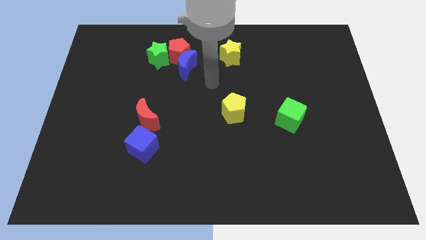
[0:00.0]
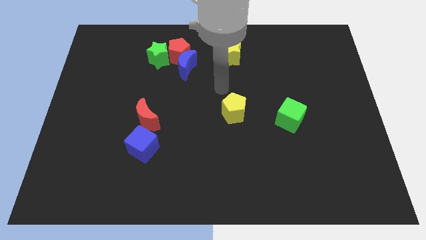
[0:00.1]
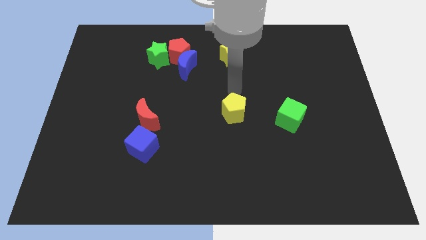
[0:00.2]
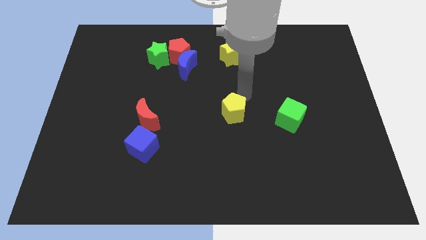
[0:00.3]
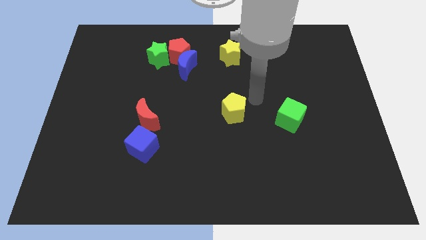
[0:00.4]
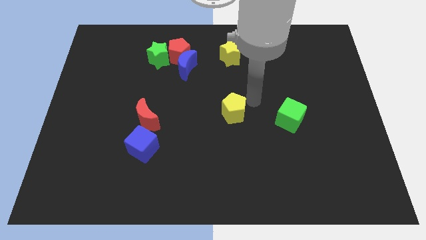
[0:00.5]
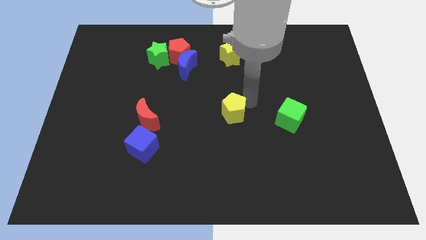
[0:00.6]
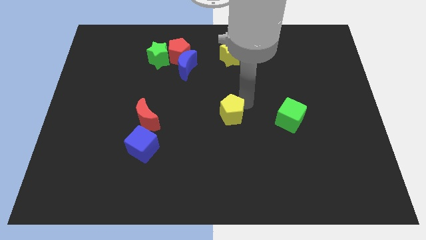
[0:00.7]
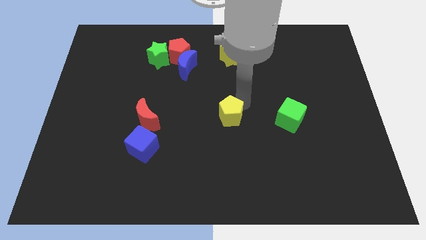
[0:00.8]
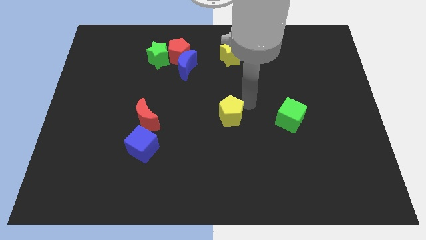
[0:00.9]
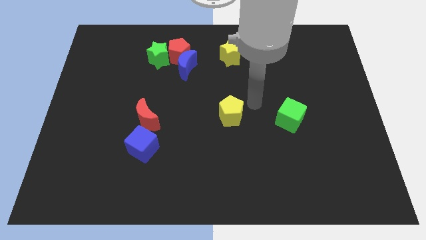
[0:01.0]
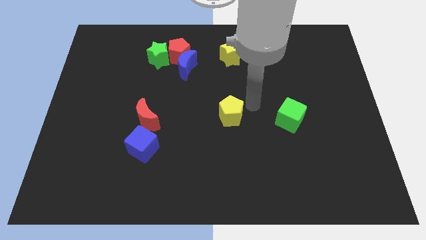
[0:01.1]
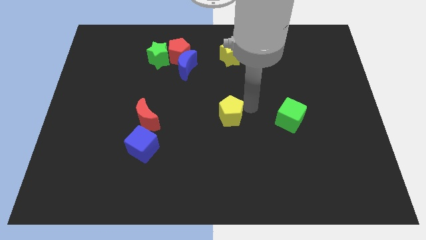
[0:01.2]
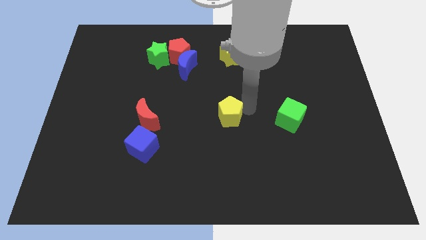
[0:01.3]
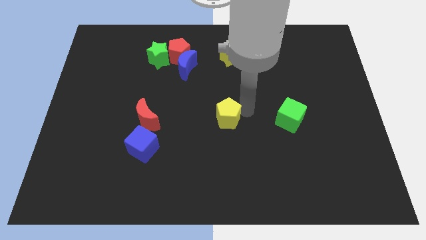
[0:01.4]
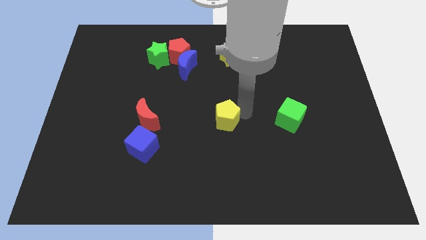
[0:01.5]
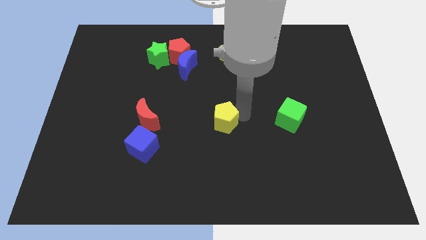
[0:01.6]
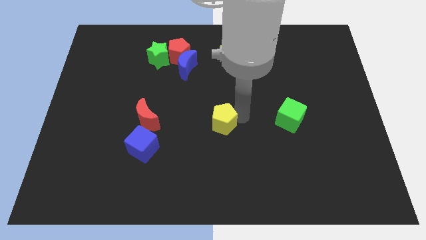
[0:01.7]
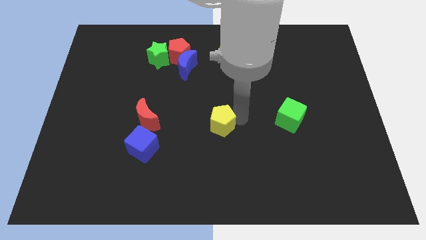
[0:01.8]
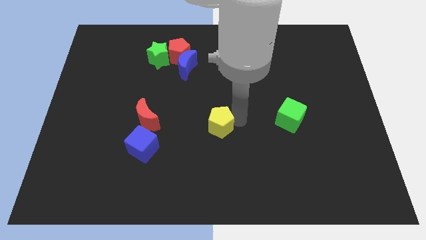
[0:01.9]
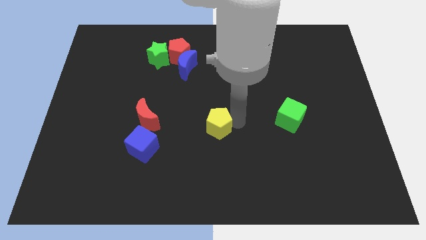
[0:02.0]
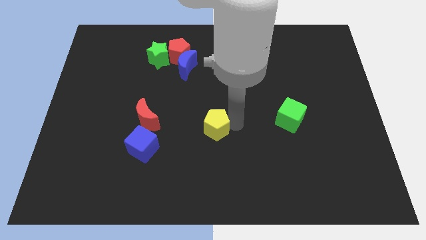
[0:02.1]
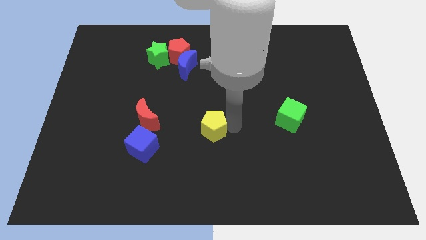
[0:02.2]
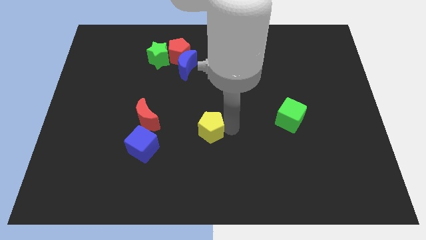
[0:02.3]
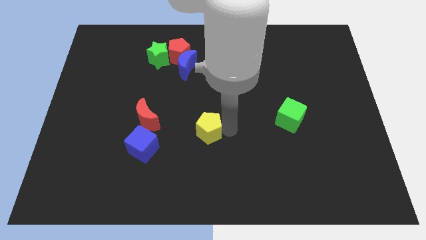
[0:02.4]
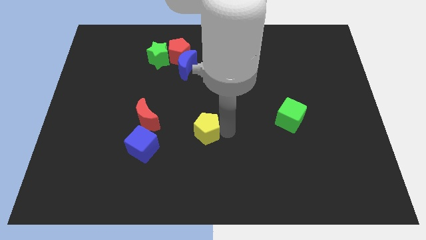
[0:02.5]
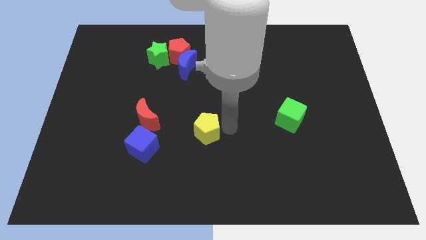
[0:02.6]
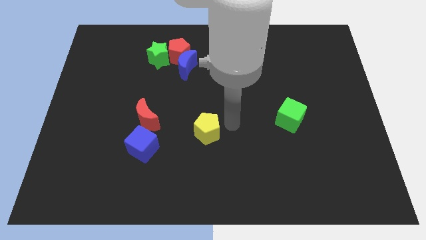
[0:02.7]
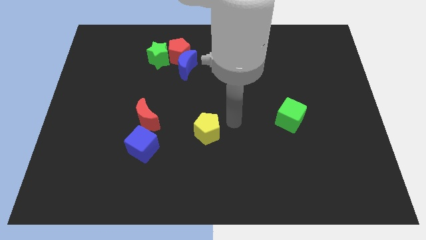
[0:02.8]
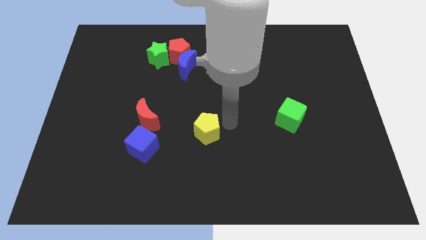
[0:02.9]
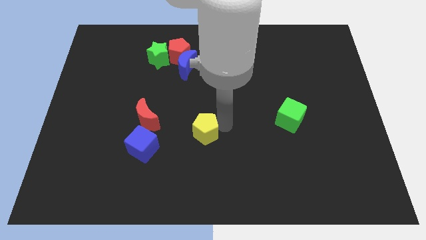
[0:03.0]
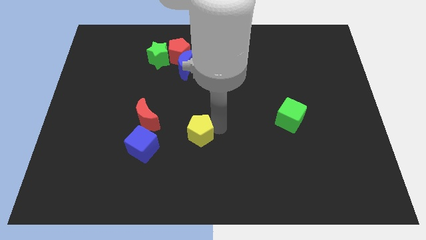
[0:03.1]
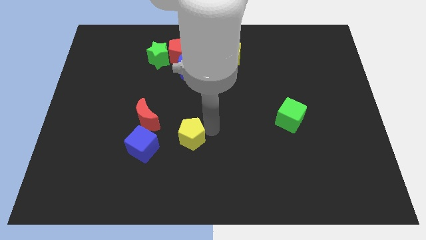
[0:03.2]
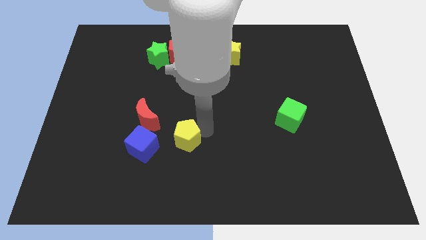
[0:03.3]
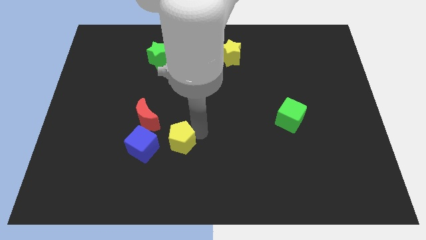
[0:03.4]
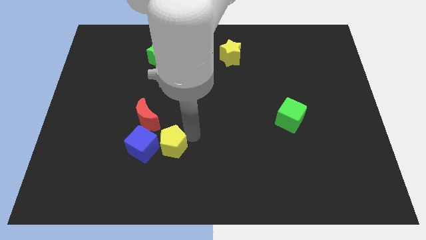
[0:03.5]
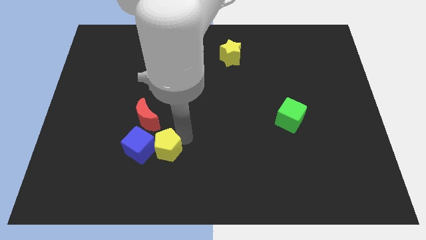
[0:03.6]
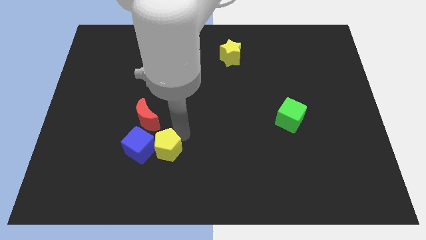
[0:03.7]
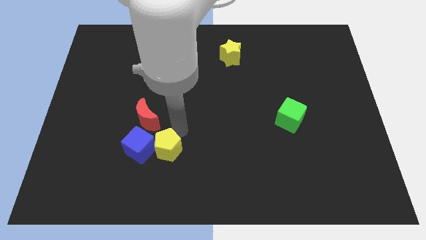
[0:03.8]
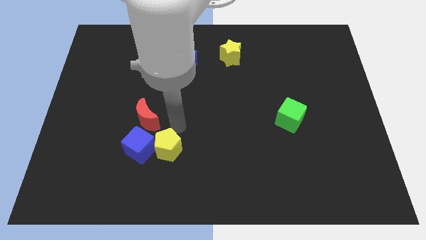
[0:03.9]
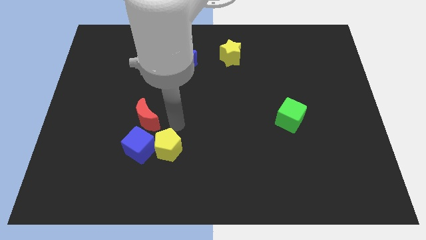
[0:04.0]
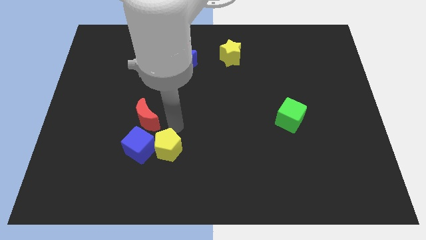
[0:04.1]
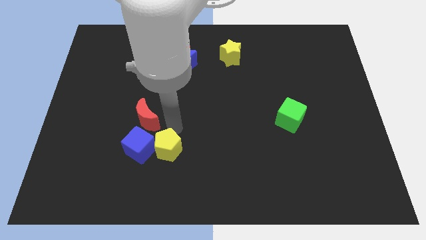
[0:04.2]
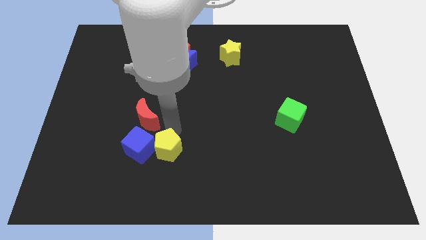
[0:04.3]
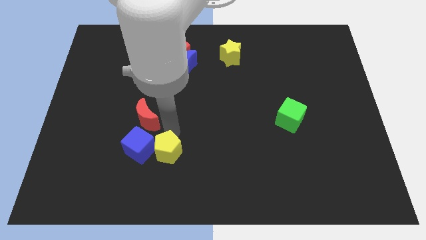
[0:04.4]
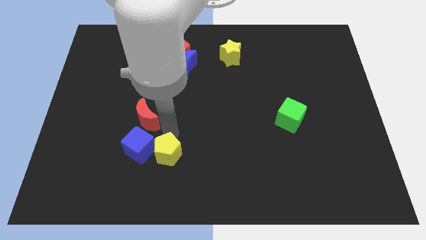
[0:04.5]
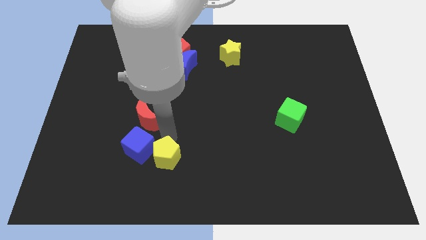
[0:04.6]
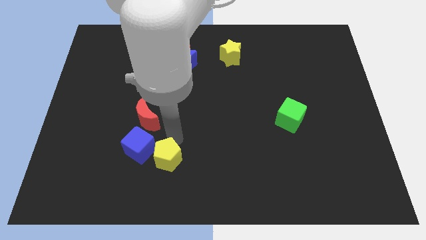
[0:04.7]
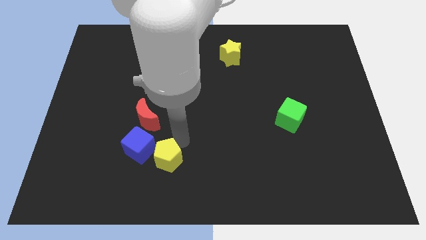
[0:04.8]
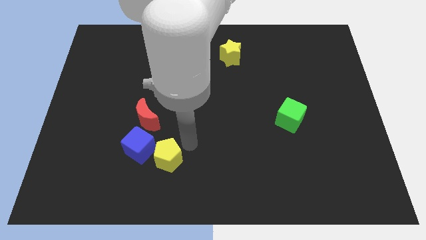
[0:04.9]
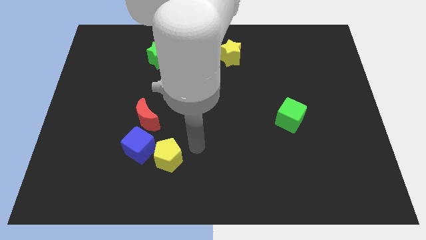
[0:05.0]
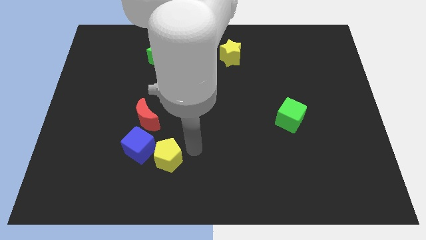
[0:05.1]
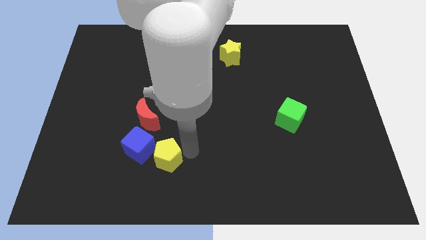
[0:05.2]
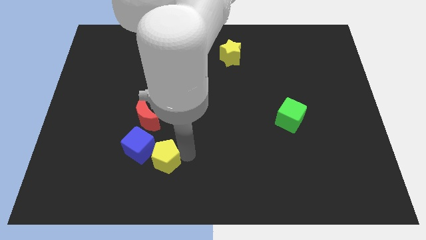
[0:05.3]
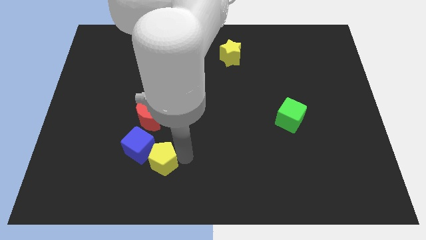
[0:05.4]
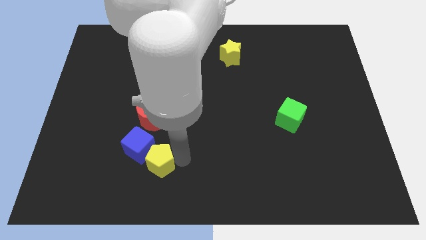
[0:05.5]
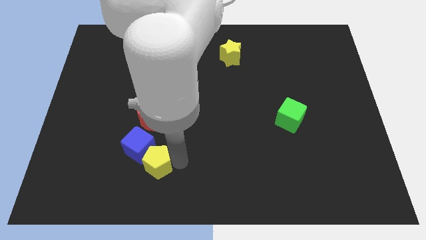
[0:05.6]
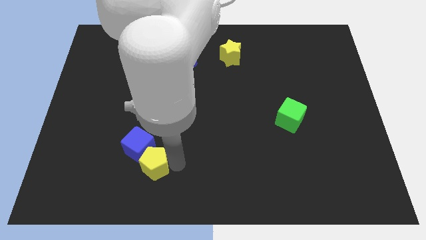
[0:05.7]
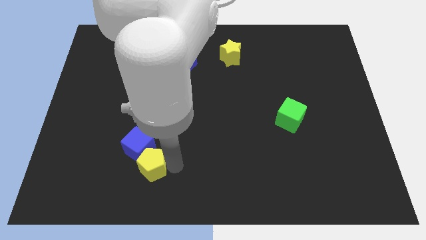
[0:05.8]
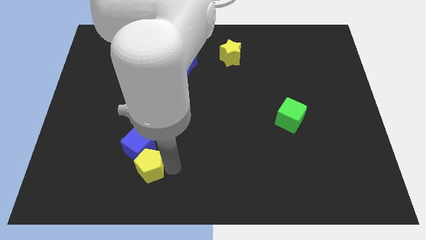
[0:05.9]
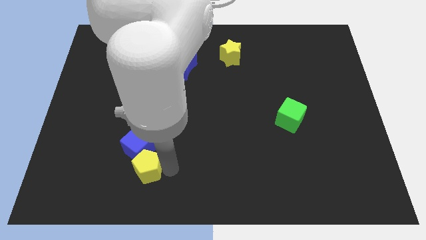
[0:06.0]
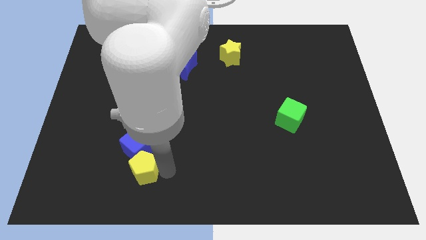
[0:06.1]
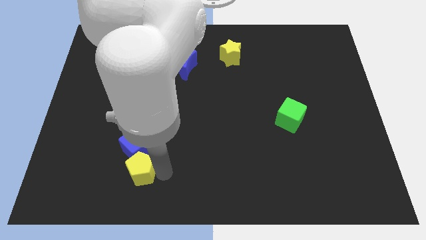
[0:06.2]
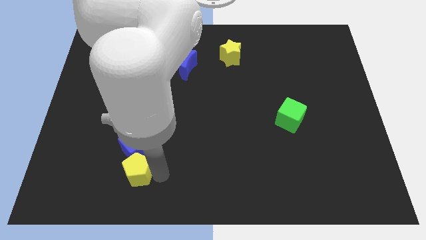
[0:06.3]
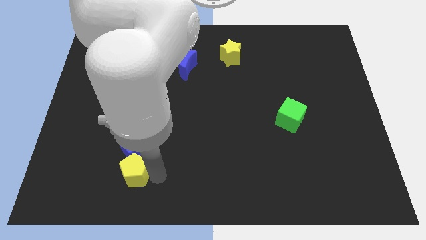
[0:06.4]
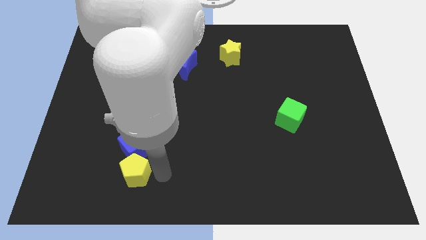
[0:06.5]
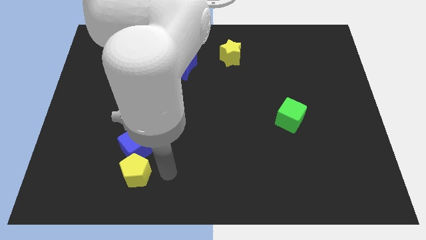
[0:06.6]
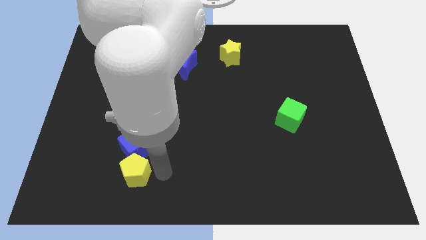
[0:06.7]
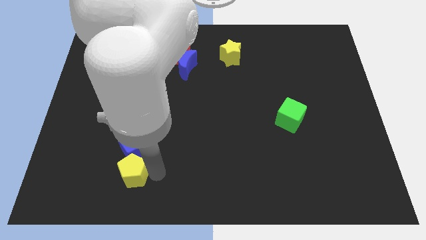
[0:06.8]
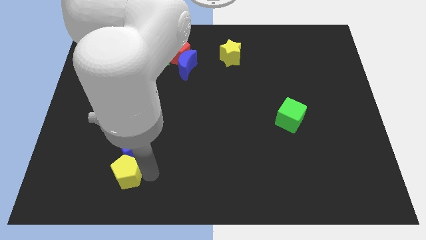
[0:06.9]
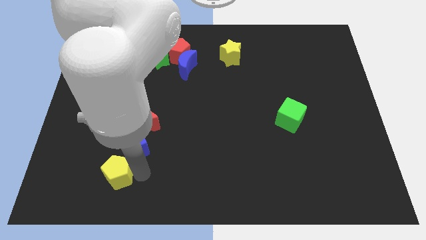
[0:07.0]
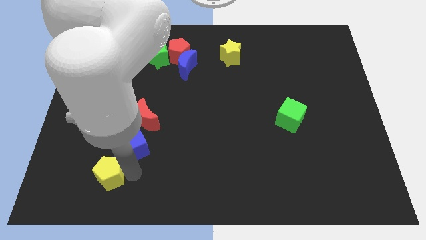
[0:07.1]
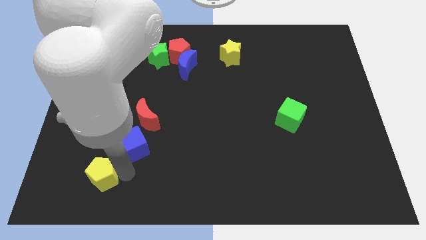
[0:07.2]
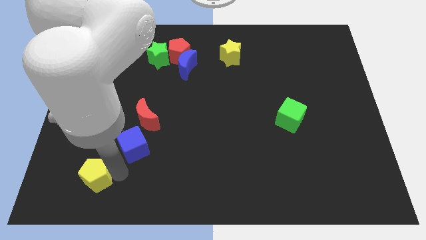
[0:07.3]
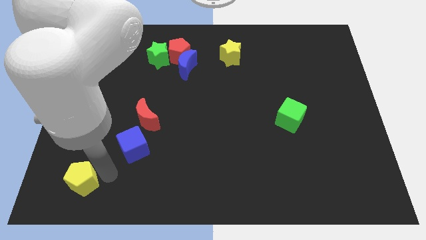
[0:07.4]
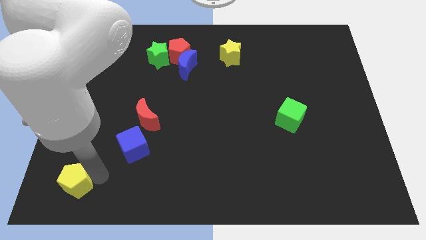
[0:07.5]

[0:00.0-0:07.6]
put the yellow pentagon to the bottom left

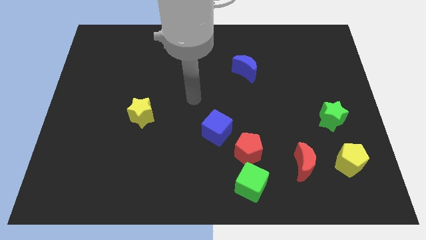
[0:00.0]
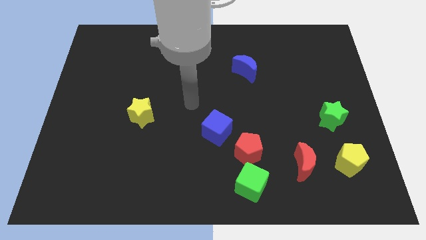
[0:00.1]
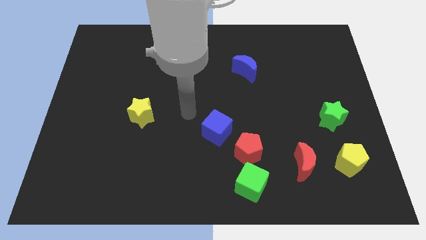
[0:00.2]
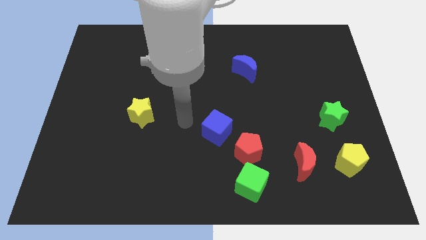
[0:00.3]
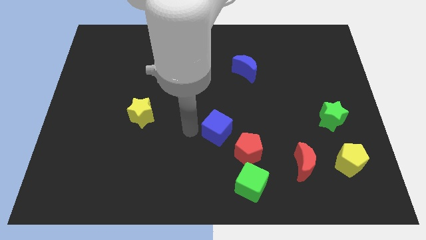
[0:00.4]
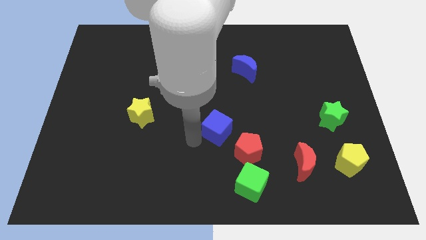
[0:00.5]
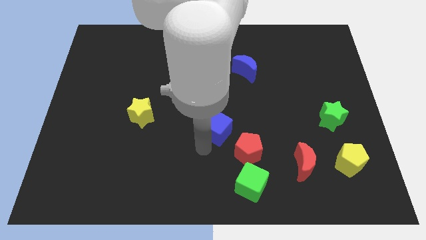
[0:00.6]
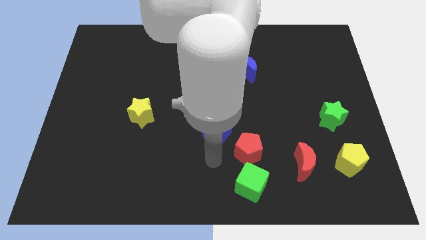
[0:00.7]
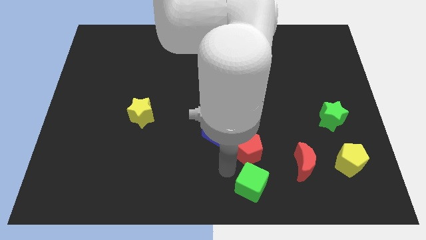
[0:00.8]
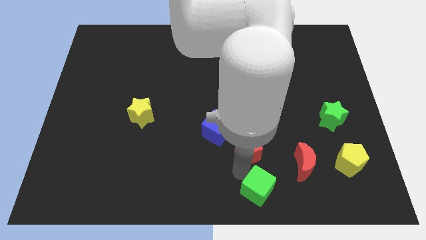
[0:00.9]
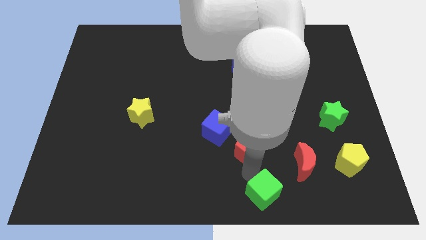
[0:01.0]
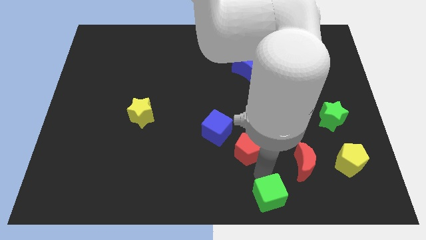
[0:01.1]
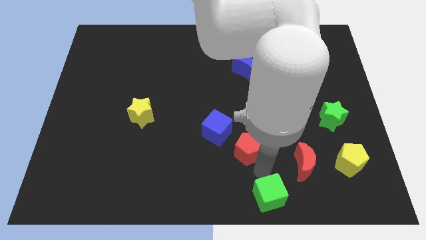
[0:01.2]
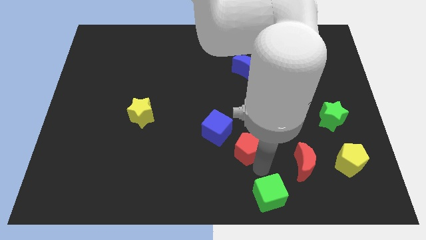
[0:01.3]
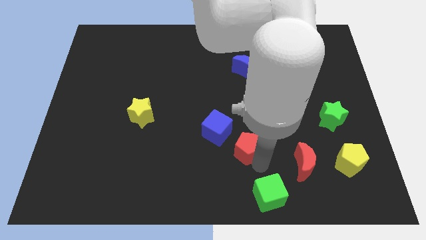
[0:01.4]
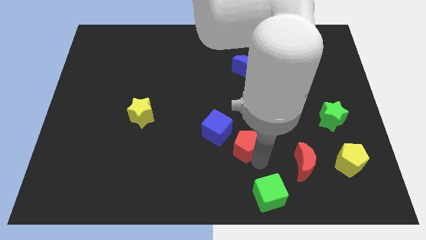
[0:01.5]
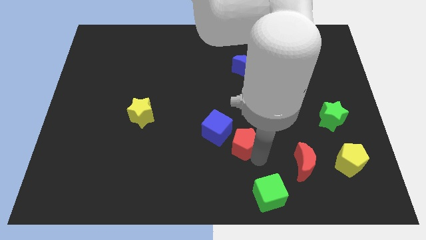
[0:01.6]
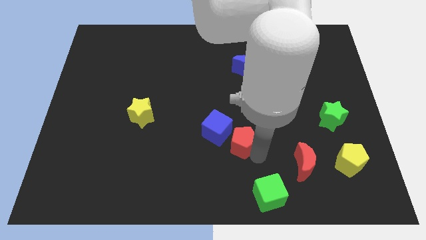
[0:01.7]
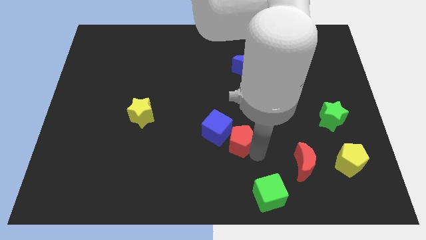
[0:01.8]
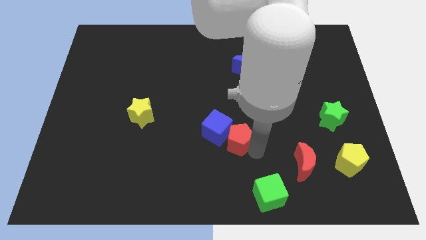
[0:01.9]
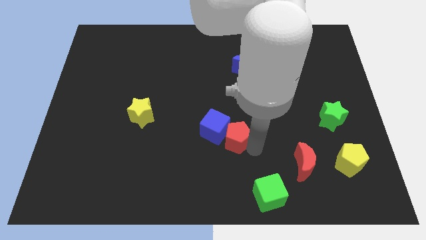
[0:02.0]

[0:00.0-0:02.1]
slide the red pentagon to the middle of the board
